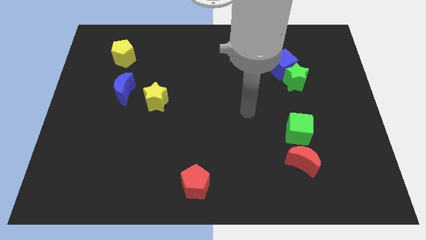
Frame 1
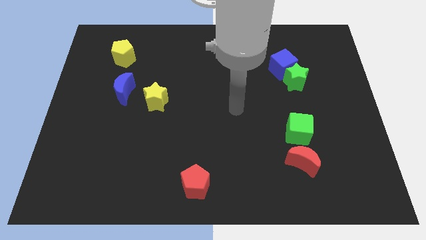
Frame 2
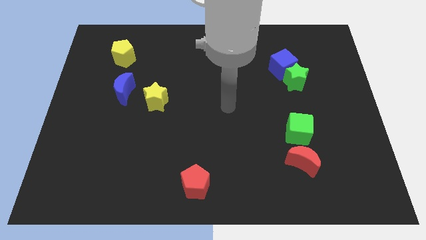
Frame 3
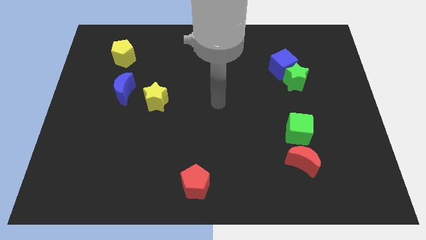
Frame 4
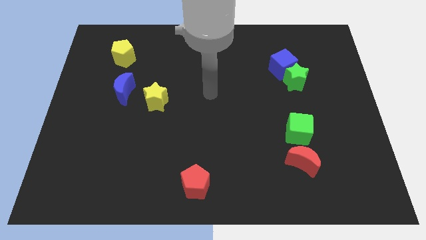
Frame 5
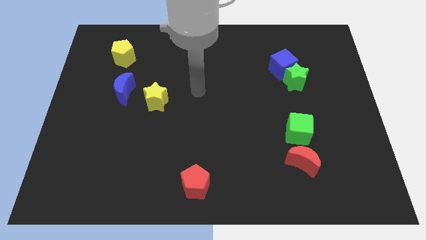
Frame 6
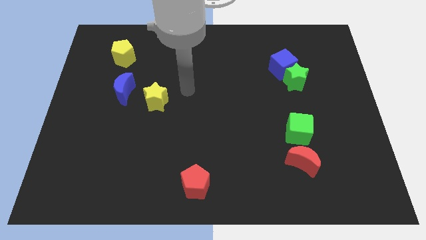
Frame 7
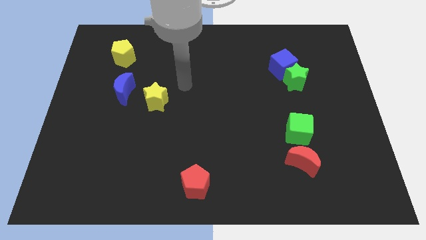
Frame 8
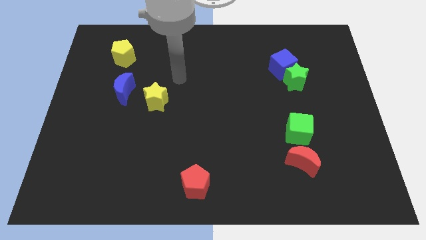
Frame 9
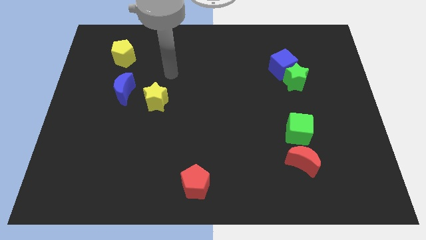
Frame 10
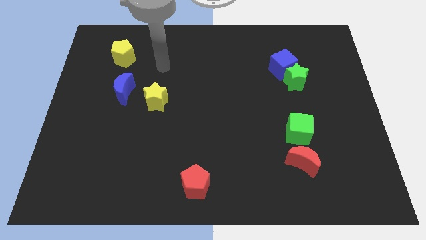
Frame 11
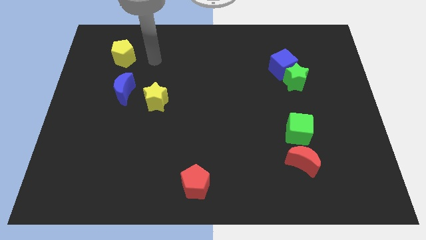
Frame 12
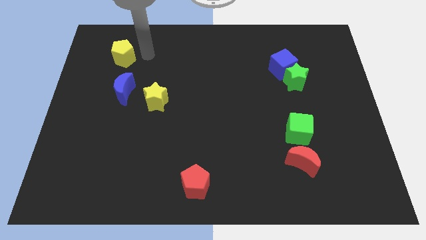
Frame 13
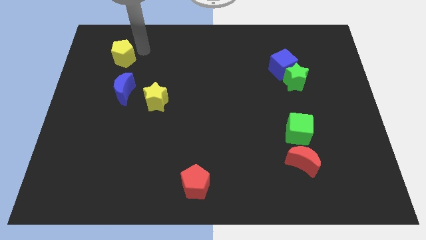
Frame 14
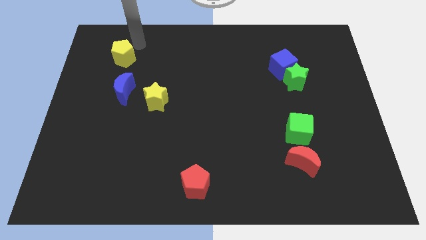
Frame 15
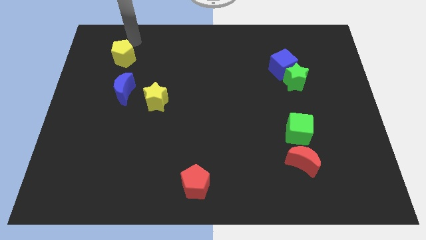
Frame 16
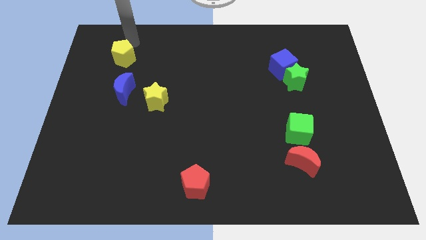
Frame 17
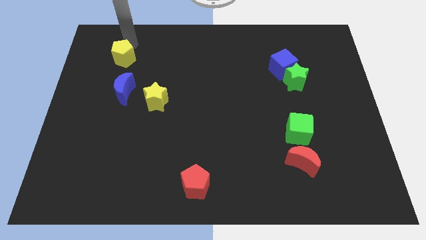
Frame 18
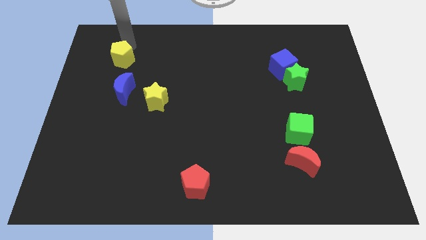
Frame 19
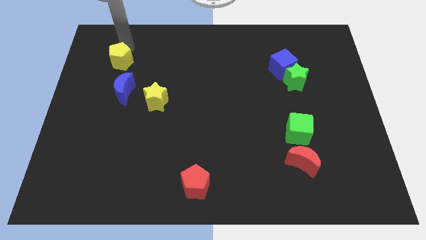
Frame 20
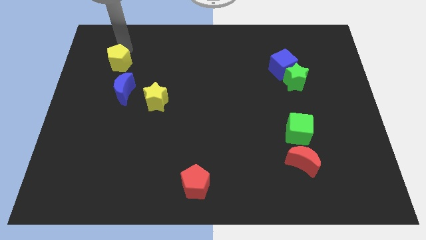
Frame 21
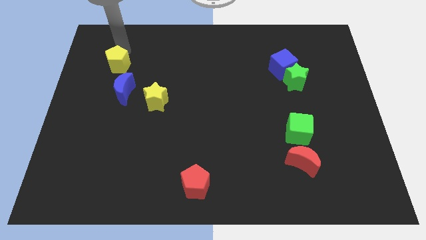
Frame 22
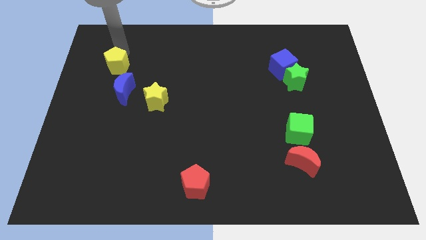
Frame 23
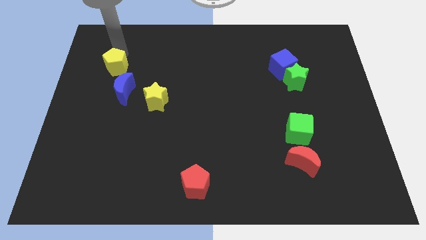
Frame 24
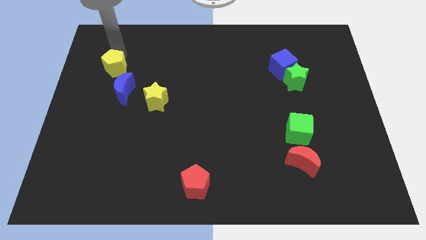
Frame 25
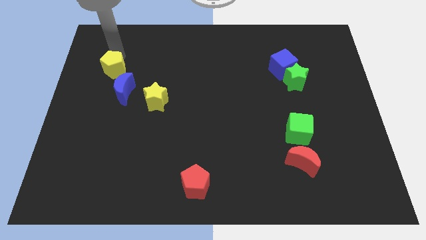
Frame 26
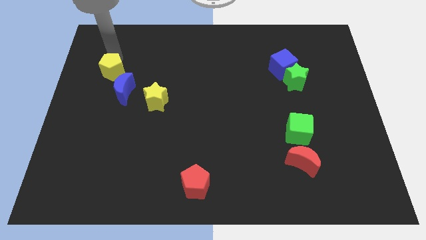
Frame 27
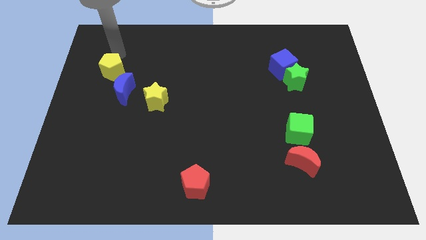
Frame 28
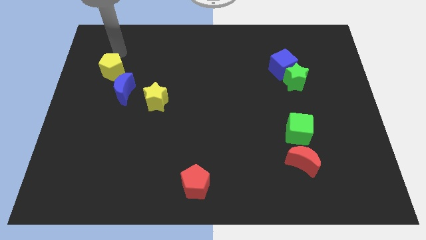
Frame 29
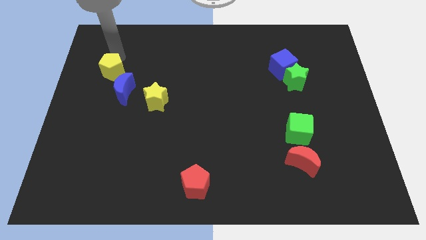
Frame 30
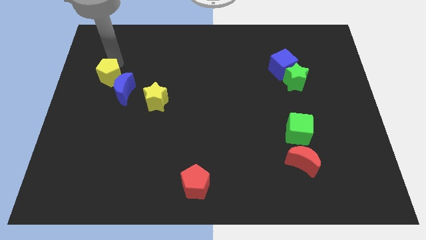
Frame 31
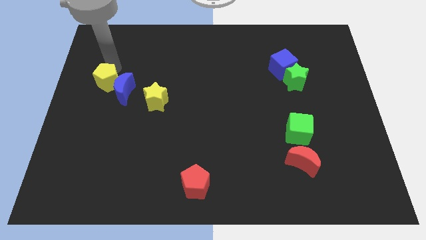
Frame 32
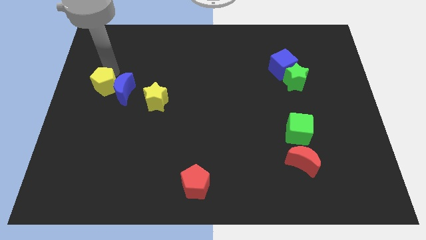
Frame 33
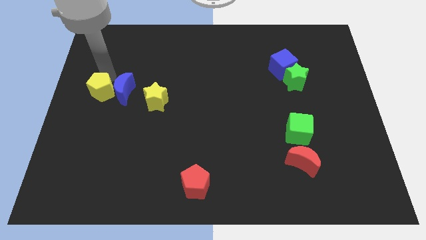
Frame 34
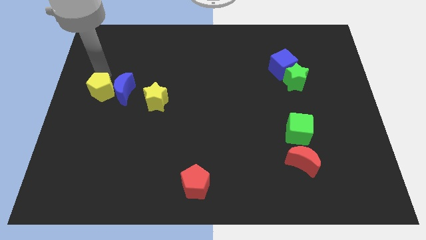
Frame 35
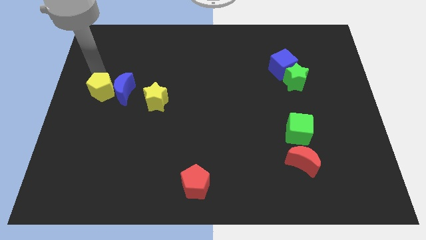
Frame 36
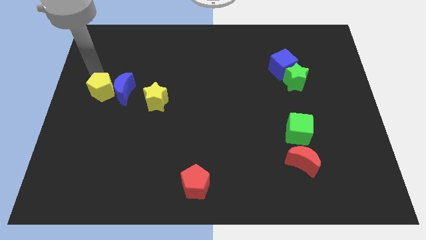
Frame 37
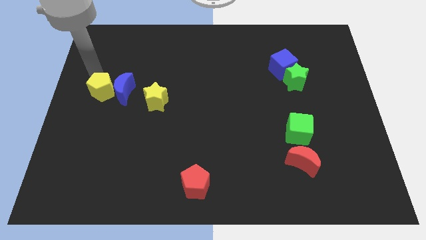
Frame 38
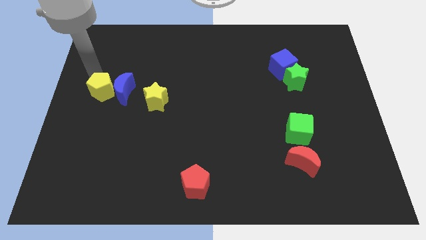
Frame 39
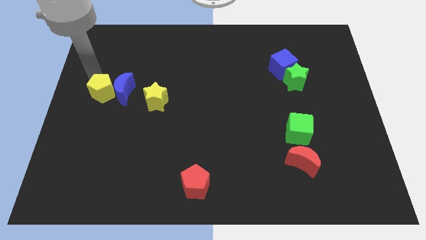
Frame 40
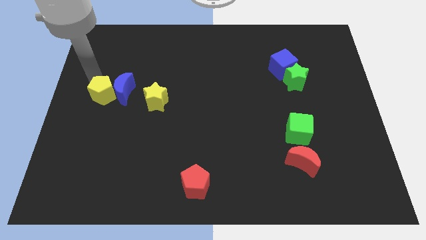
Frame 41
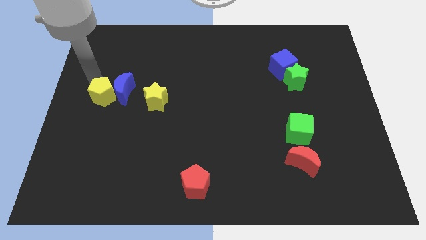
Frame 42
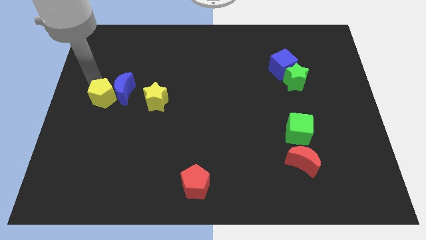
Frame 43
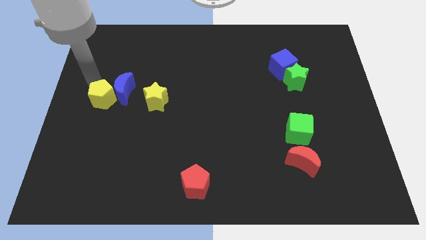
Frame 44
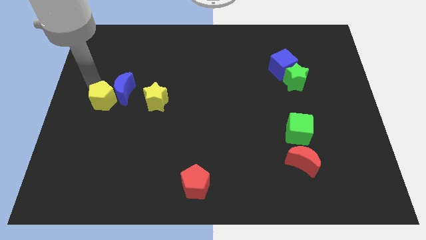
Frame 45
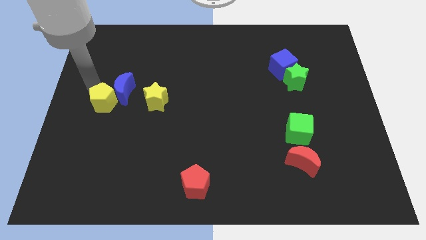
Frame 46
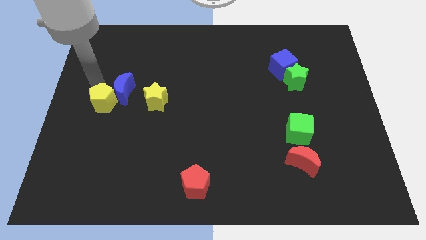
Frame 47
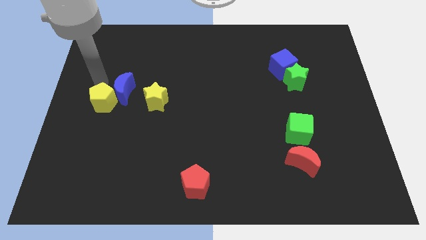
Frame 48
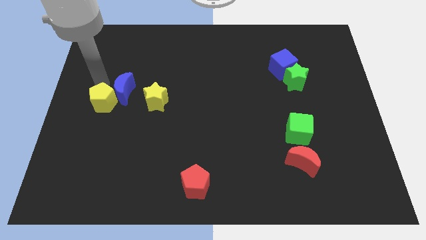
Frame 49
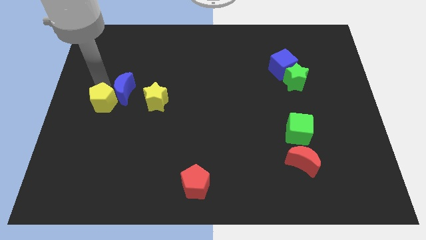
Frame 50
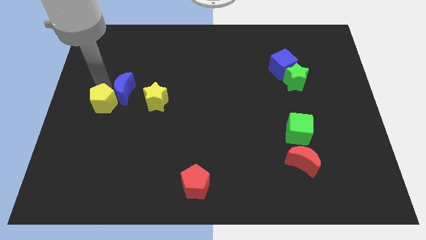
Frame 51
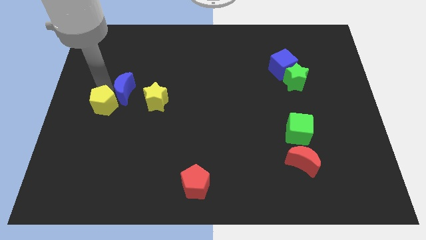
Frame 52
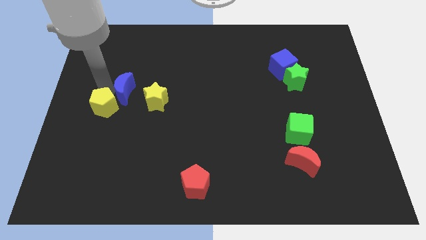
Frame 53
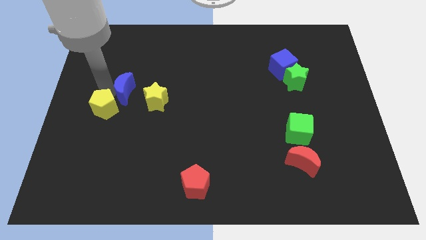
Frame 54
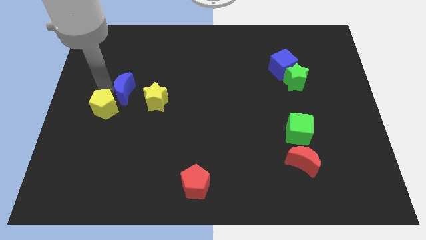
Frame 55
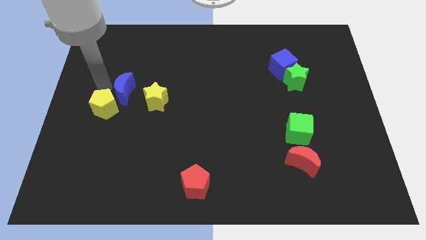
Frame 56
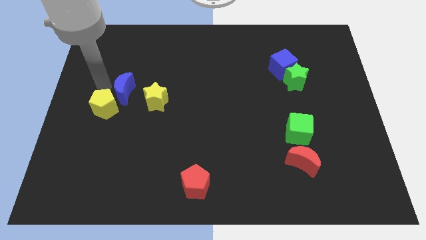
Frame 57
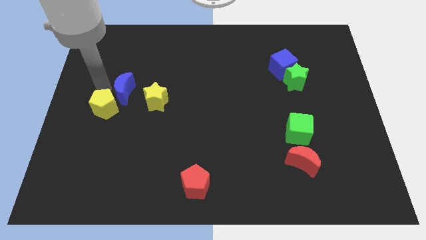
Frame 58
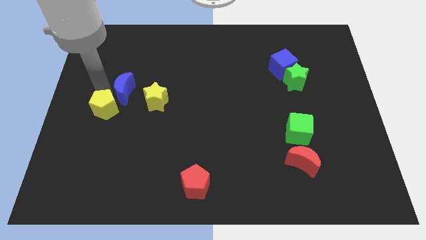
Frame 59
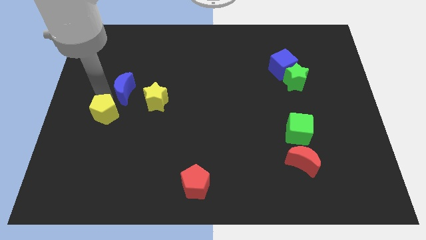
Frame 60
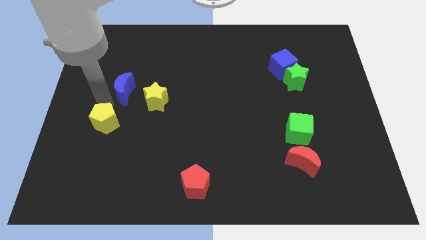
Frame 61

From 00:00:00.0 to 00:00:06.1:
push the yellow pentagon down

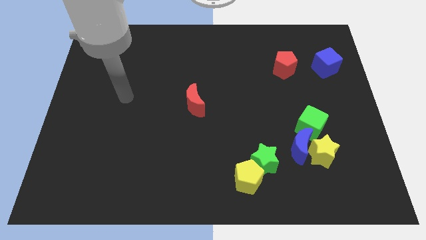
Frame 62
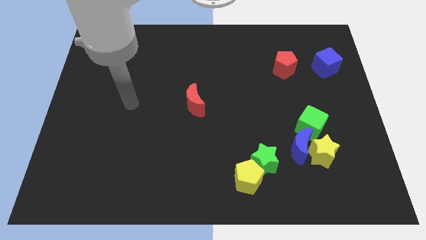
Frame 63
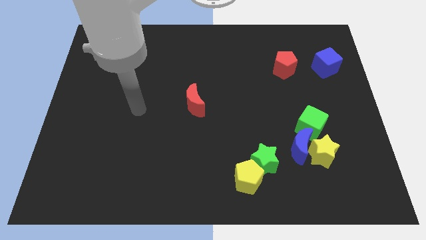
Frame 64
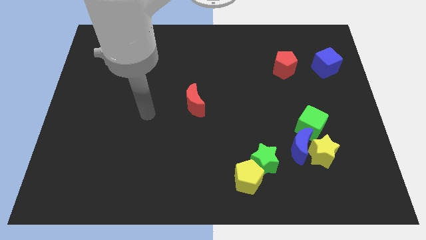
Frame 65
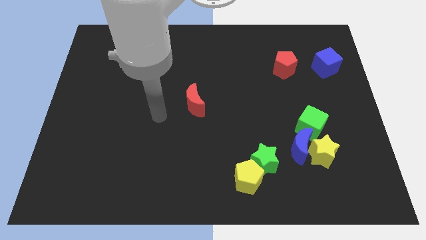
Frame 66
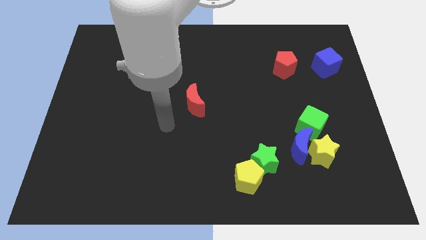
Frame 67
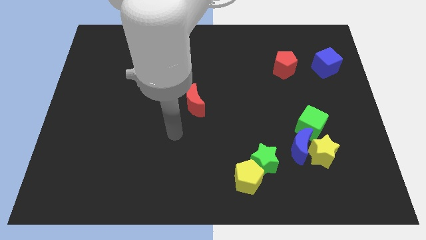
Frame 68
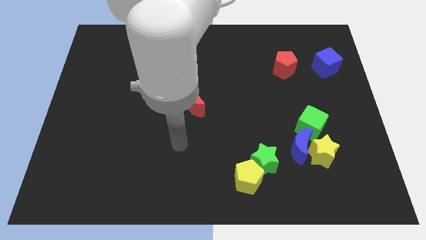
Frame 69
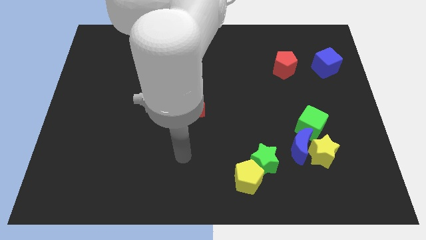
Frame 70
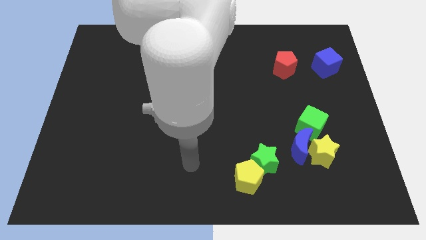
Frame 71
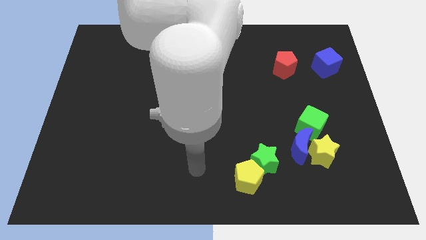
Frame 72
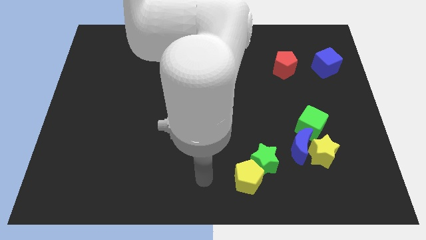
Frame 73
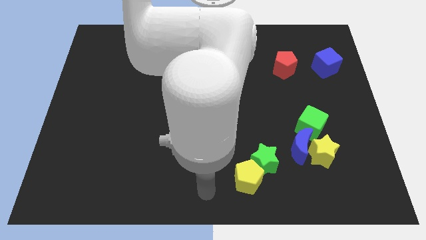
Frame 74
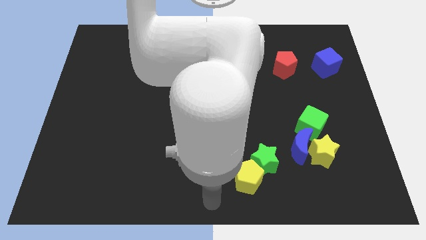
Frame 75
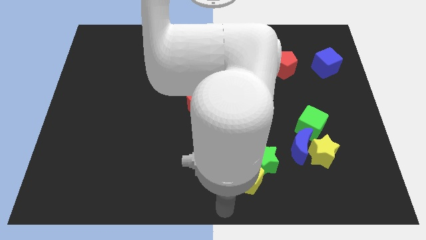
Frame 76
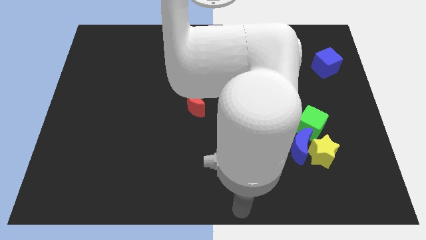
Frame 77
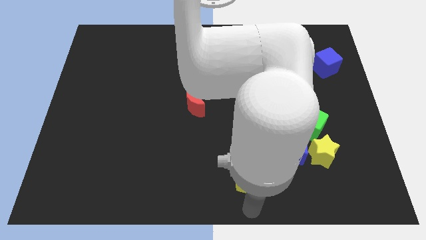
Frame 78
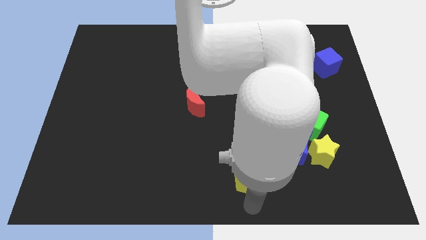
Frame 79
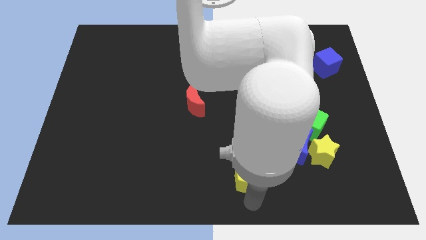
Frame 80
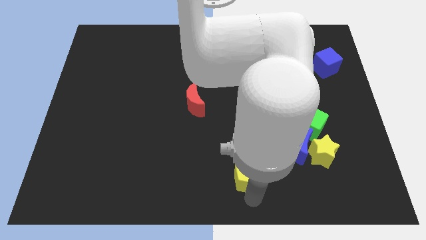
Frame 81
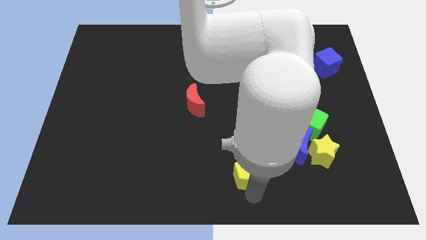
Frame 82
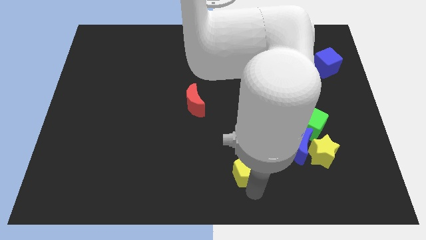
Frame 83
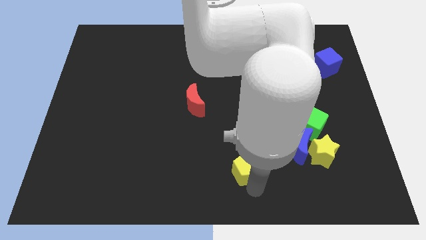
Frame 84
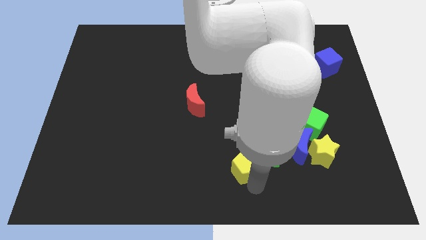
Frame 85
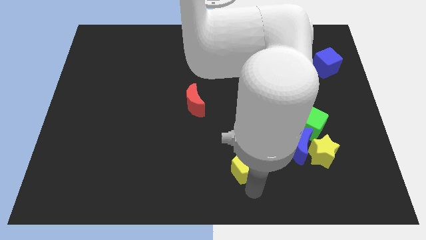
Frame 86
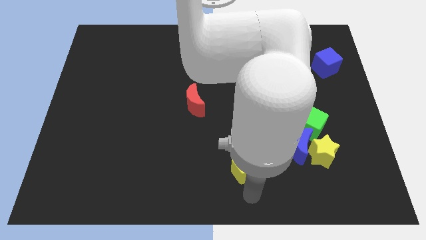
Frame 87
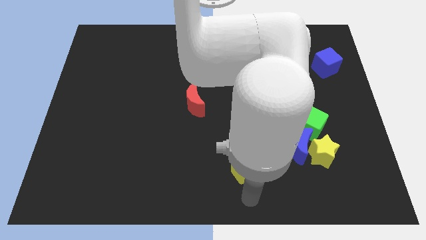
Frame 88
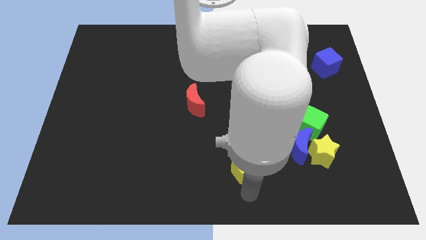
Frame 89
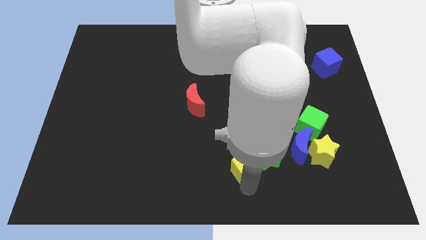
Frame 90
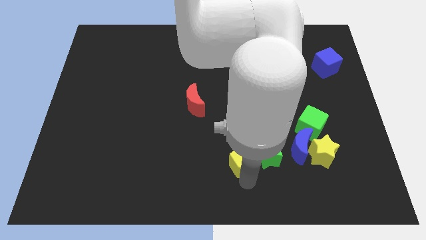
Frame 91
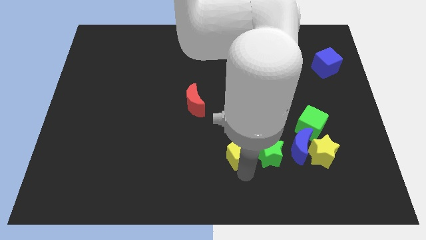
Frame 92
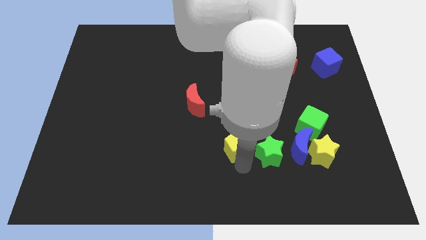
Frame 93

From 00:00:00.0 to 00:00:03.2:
move the yellow pentagon up a little
